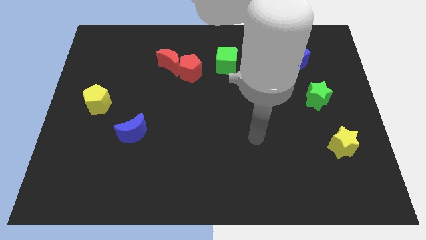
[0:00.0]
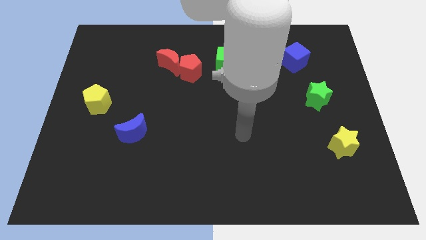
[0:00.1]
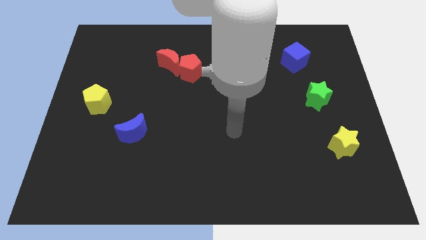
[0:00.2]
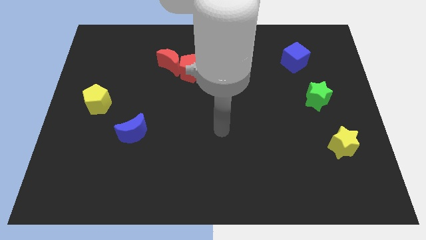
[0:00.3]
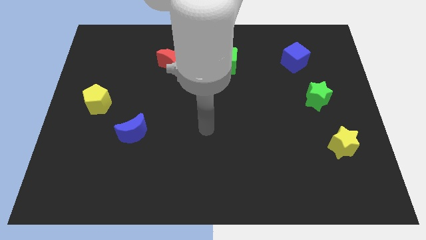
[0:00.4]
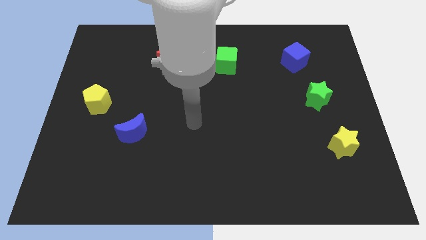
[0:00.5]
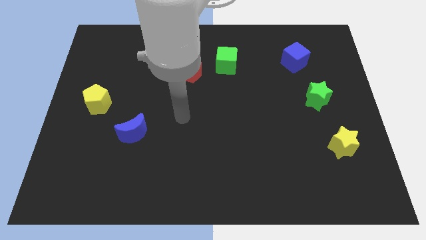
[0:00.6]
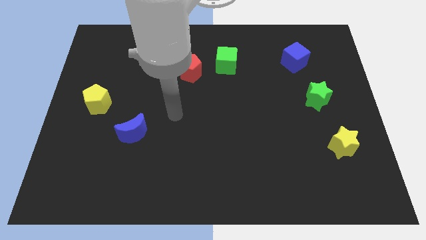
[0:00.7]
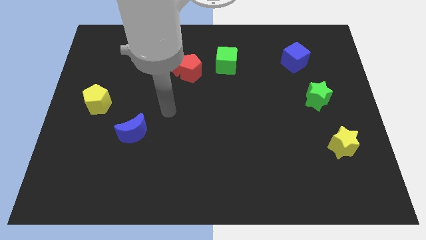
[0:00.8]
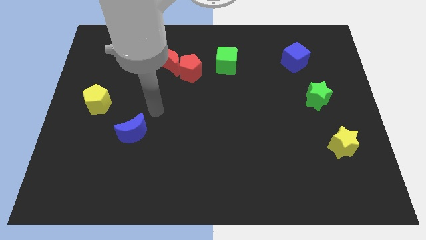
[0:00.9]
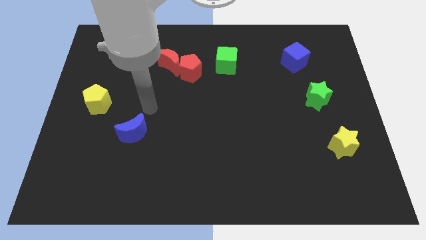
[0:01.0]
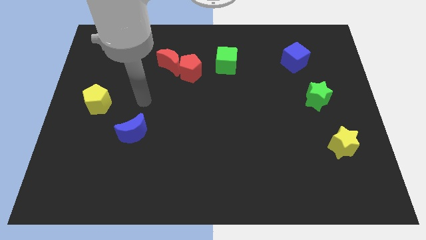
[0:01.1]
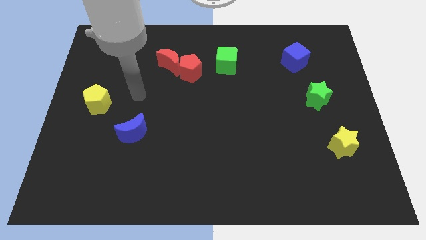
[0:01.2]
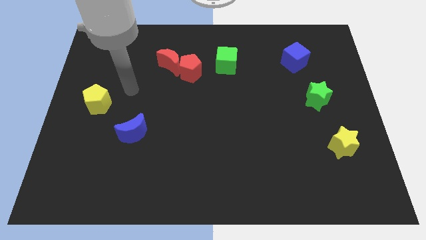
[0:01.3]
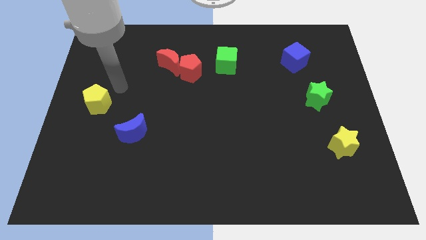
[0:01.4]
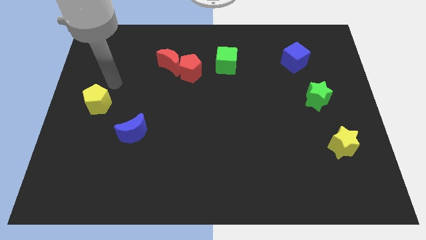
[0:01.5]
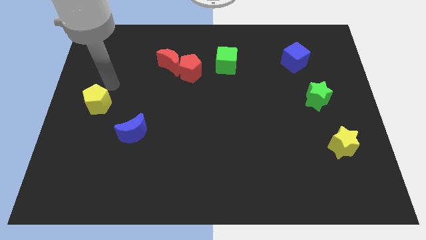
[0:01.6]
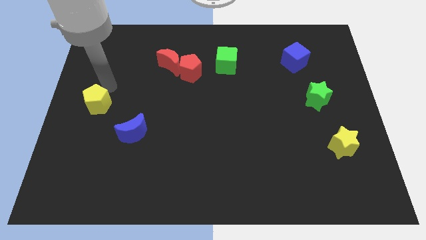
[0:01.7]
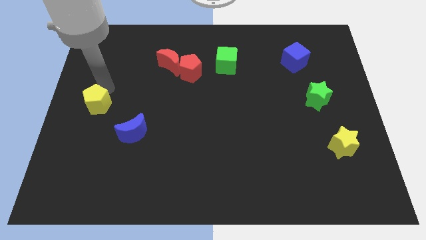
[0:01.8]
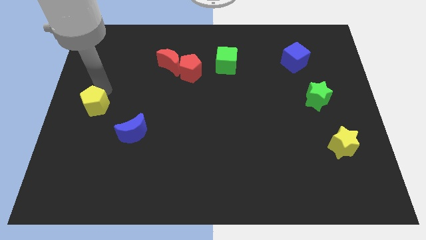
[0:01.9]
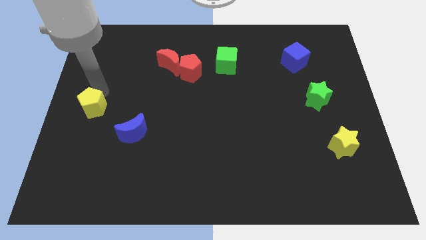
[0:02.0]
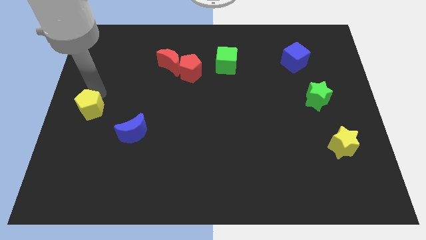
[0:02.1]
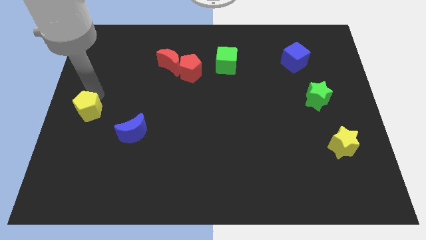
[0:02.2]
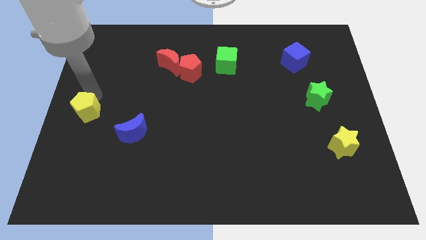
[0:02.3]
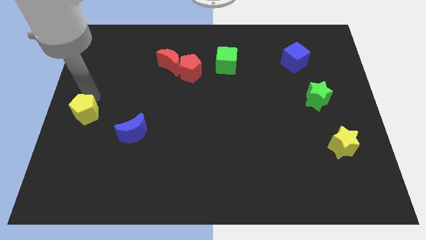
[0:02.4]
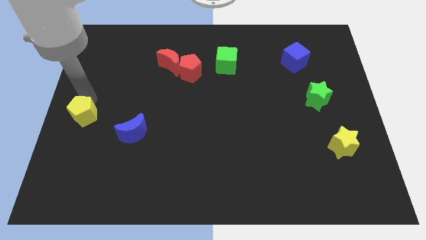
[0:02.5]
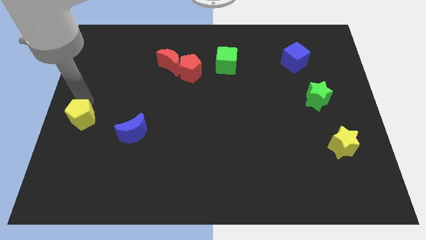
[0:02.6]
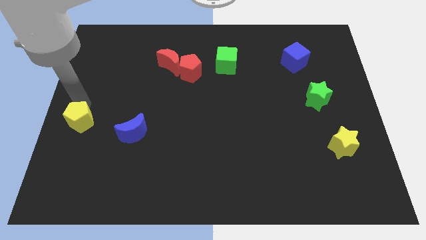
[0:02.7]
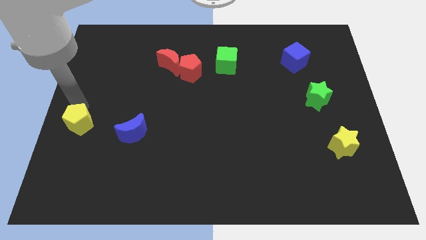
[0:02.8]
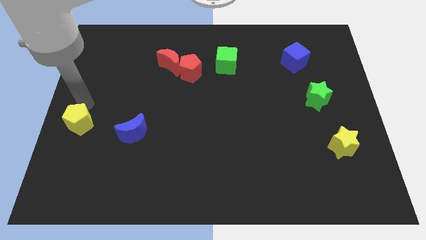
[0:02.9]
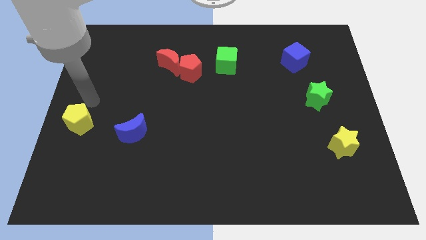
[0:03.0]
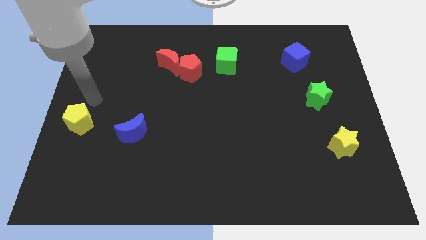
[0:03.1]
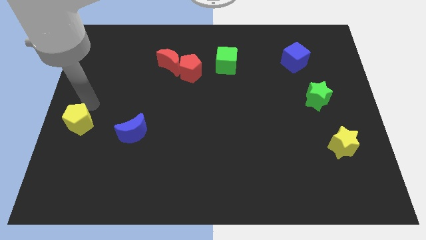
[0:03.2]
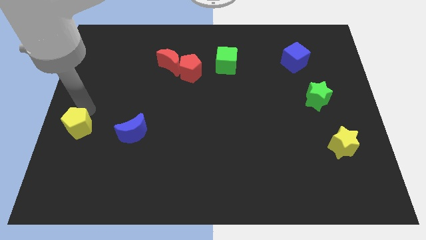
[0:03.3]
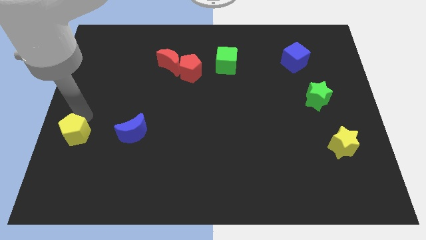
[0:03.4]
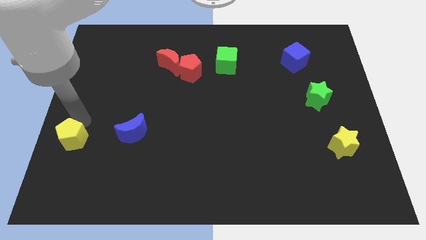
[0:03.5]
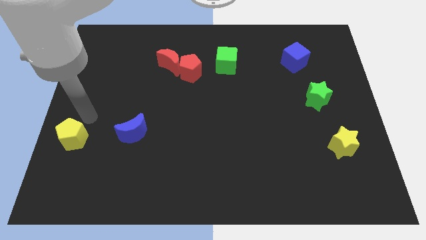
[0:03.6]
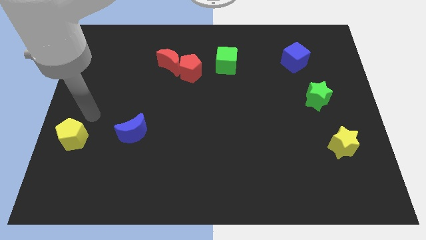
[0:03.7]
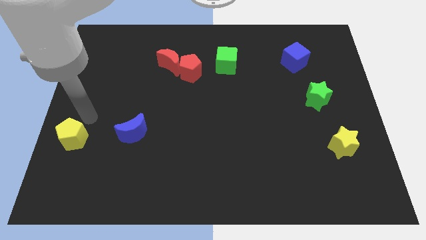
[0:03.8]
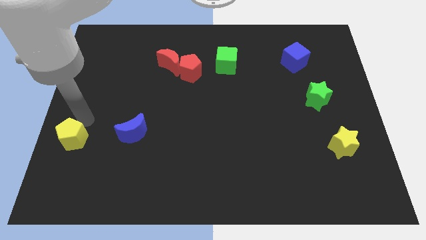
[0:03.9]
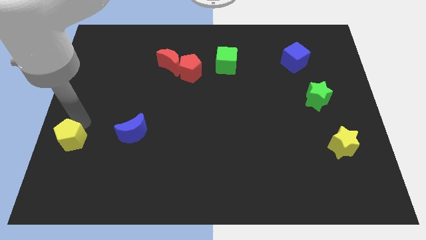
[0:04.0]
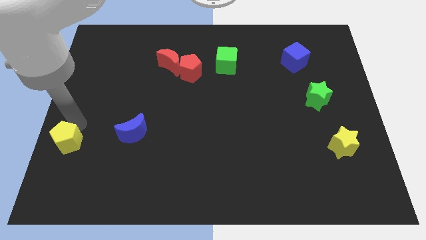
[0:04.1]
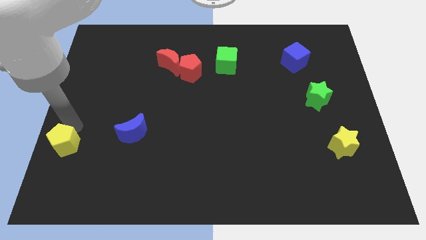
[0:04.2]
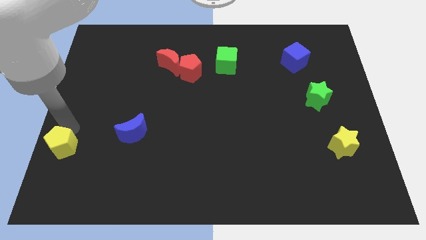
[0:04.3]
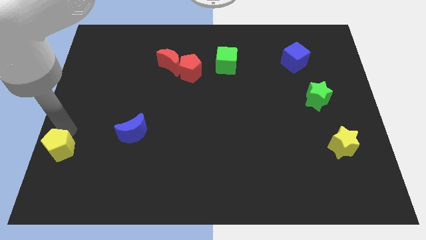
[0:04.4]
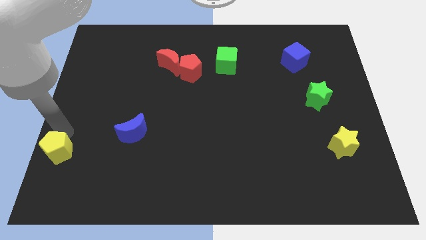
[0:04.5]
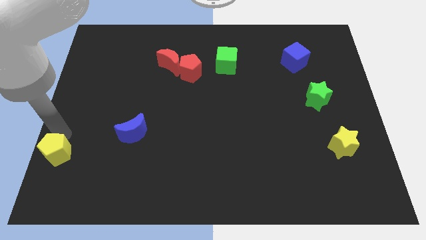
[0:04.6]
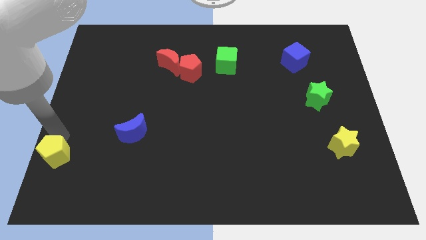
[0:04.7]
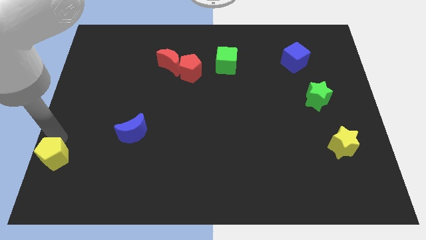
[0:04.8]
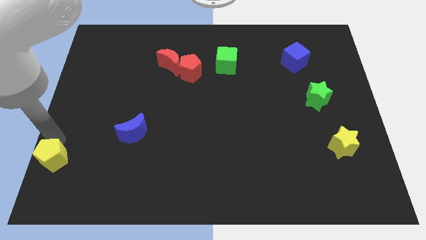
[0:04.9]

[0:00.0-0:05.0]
slide the yellow pentagon to the bottom left

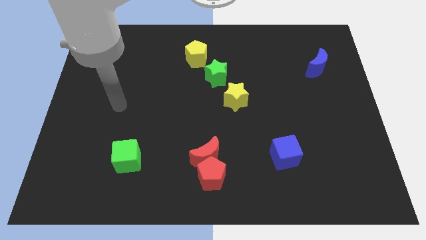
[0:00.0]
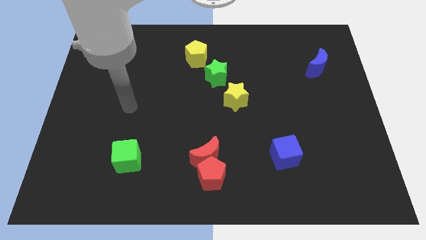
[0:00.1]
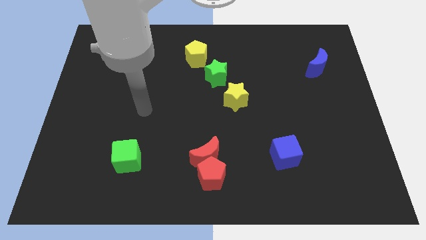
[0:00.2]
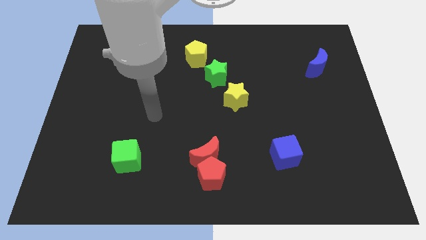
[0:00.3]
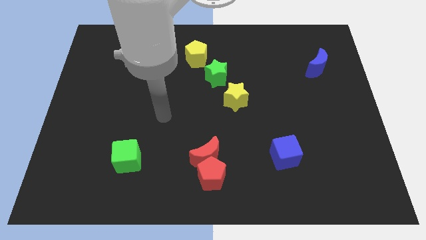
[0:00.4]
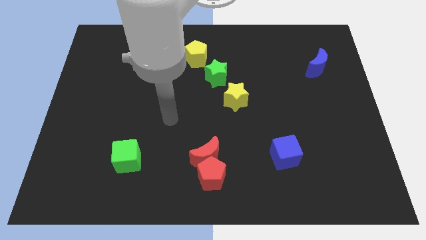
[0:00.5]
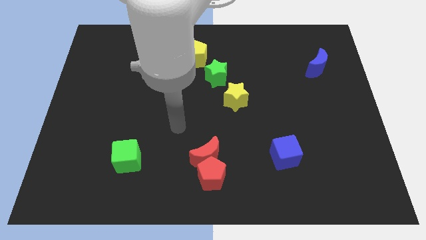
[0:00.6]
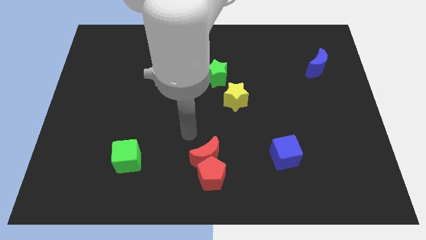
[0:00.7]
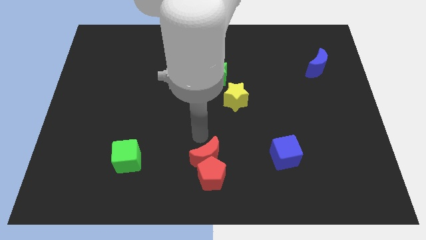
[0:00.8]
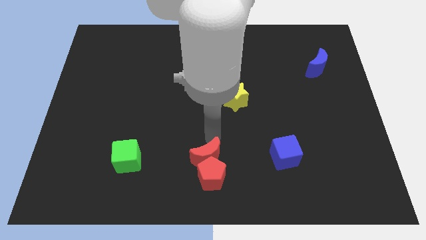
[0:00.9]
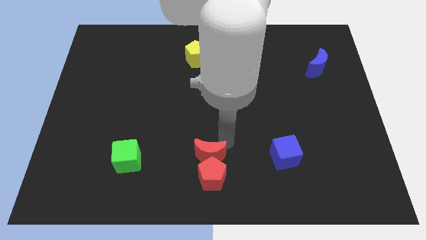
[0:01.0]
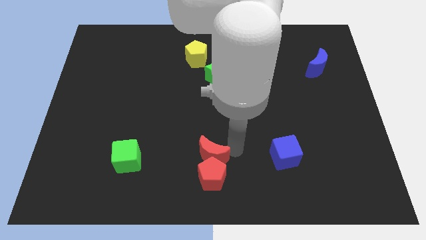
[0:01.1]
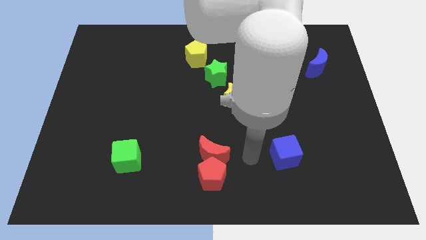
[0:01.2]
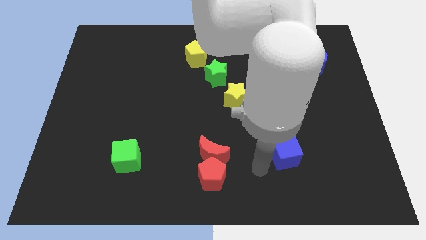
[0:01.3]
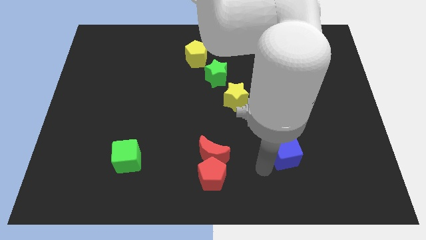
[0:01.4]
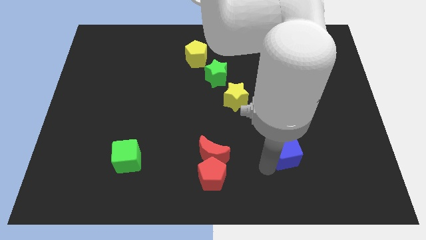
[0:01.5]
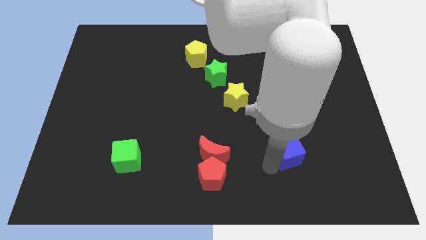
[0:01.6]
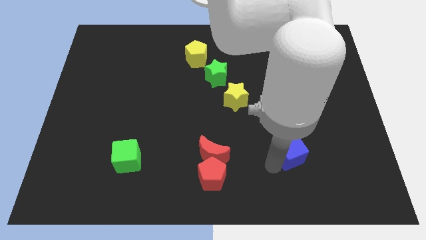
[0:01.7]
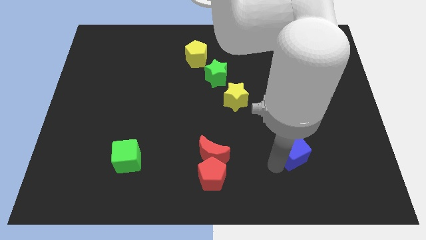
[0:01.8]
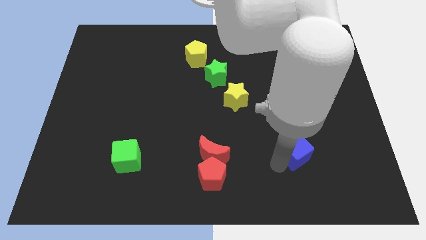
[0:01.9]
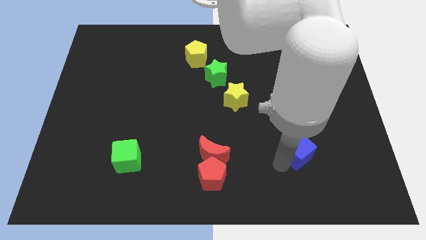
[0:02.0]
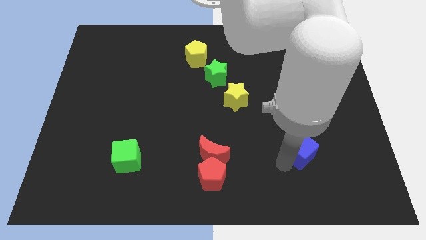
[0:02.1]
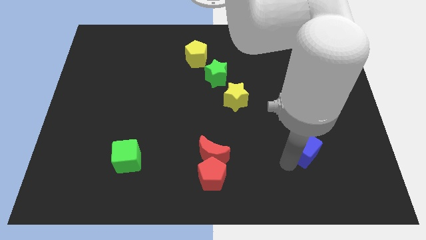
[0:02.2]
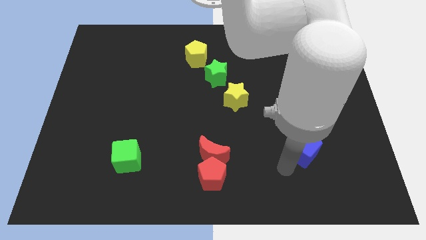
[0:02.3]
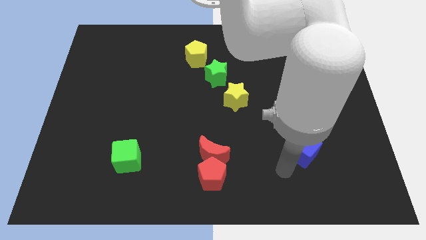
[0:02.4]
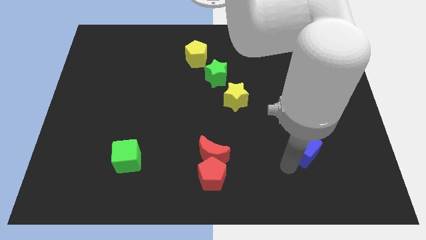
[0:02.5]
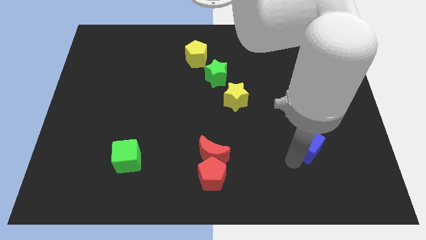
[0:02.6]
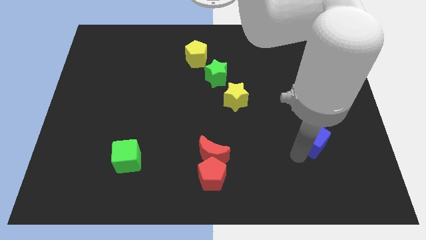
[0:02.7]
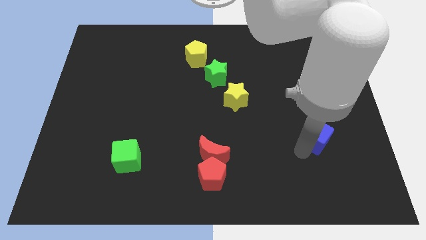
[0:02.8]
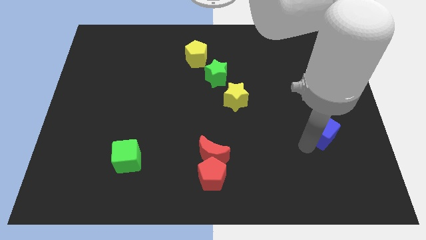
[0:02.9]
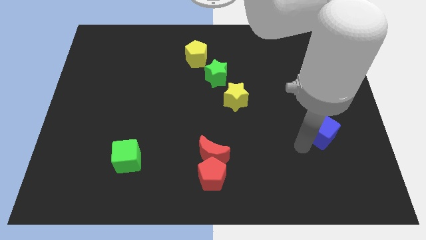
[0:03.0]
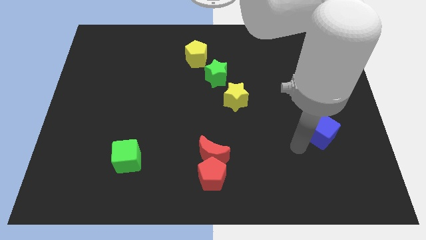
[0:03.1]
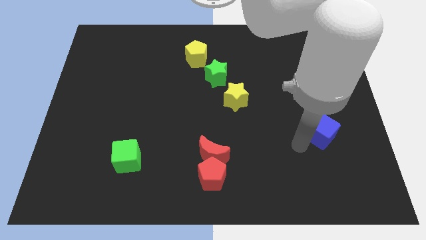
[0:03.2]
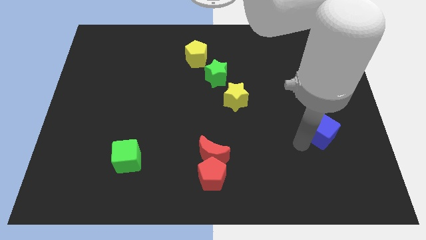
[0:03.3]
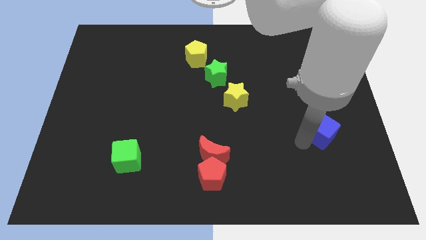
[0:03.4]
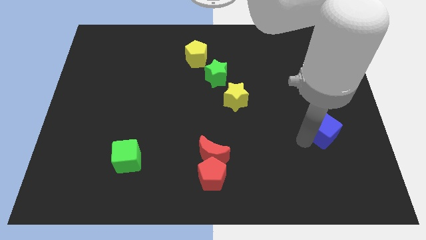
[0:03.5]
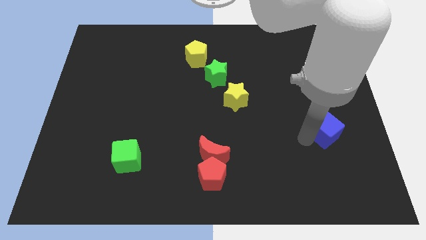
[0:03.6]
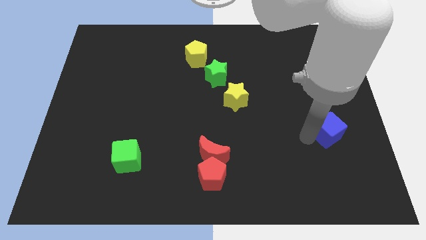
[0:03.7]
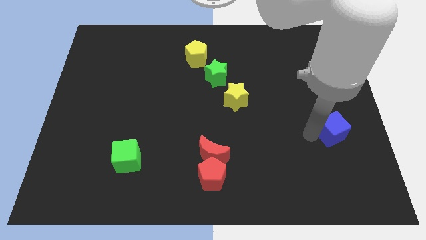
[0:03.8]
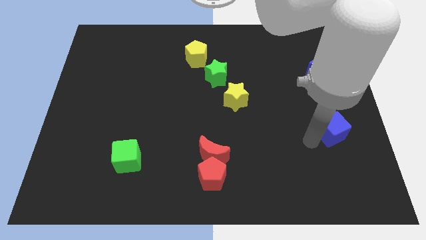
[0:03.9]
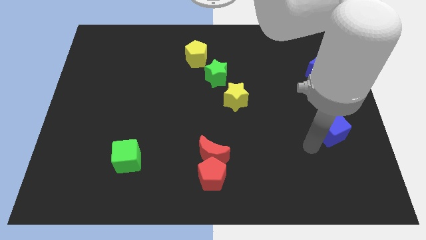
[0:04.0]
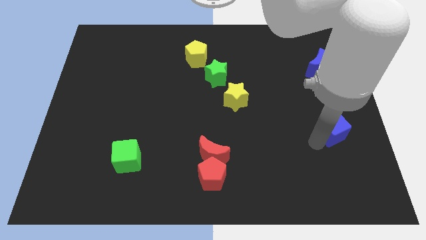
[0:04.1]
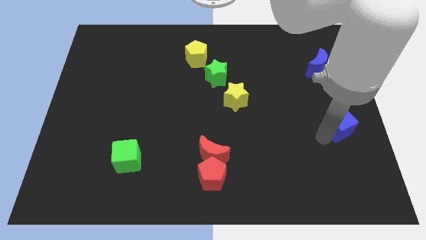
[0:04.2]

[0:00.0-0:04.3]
push the blue cube to the right side
